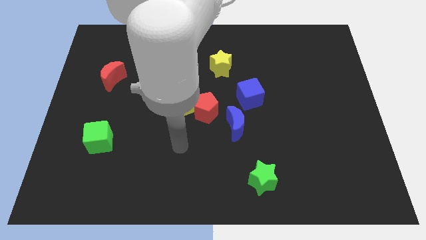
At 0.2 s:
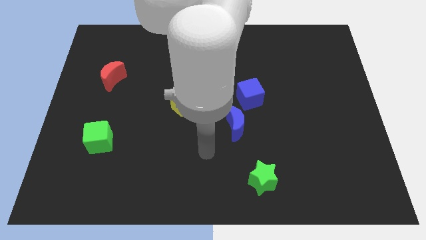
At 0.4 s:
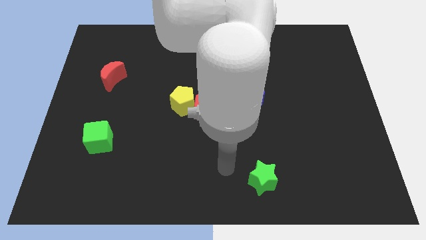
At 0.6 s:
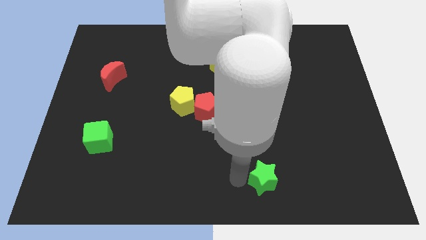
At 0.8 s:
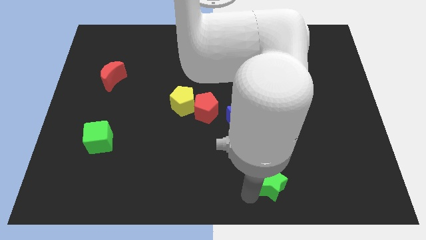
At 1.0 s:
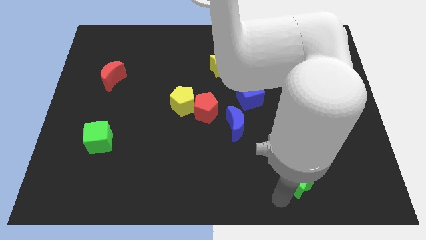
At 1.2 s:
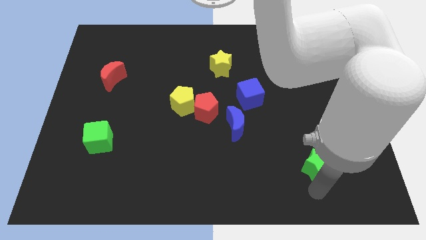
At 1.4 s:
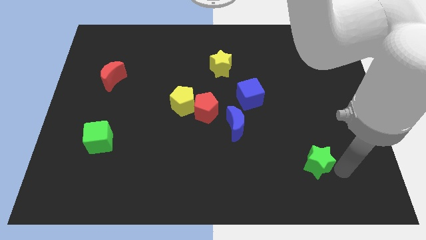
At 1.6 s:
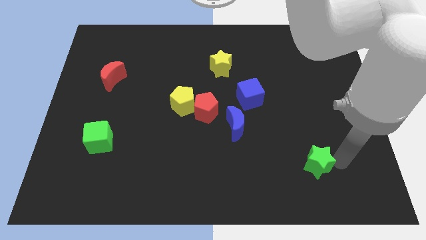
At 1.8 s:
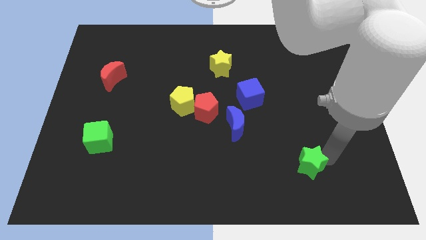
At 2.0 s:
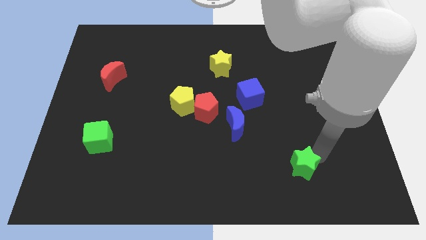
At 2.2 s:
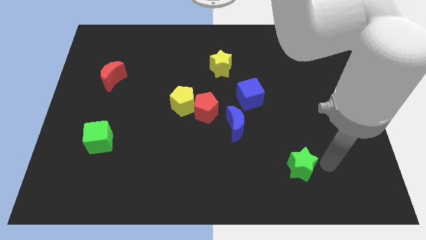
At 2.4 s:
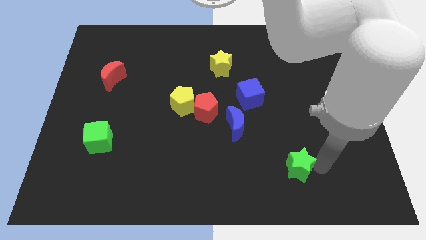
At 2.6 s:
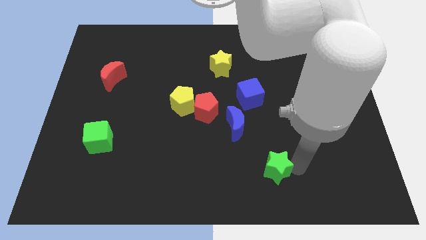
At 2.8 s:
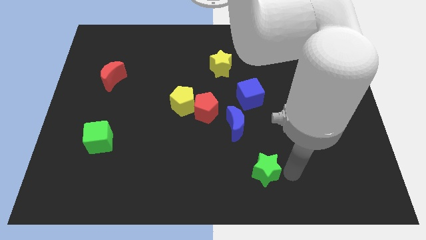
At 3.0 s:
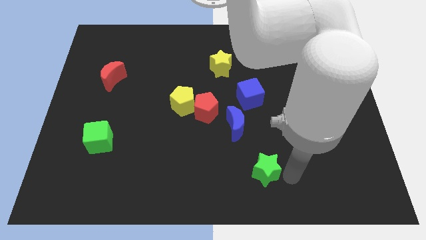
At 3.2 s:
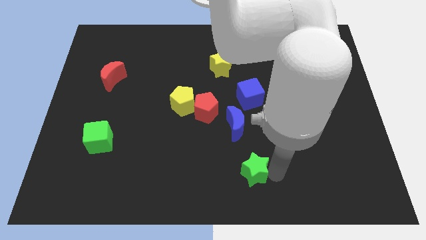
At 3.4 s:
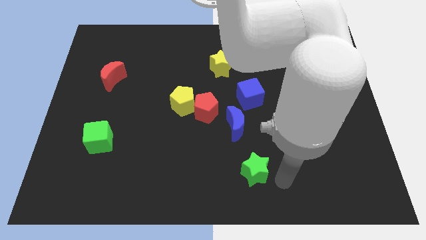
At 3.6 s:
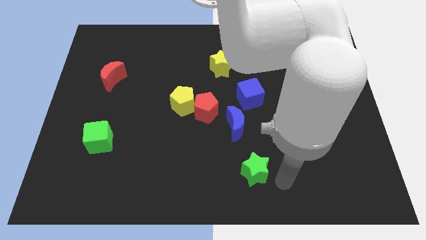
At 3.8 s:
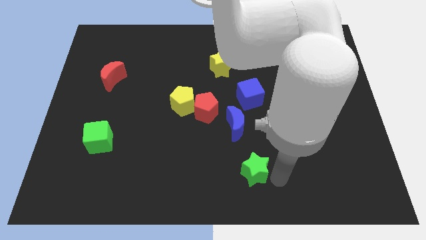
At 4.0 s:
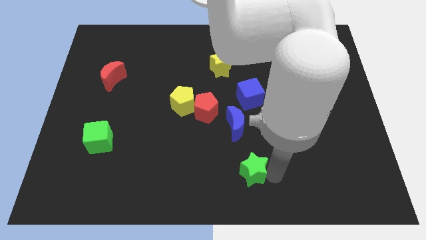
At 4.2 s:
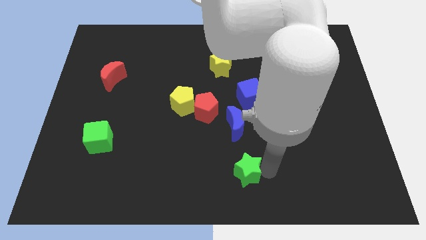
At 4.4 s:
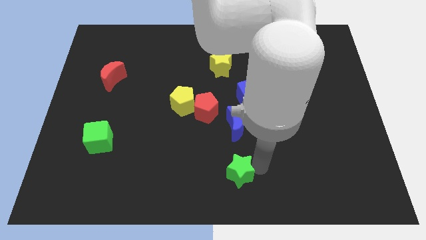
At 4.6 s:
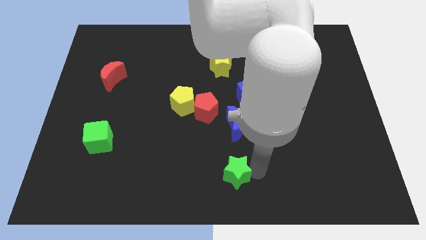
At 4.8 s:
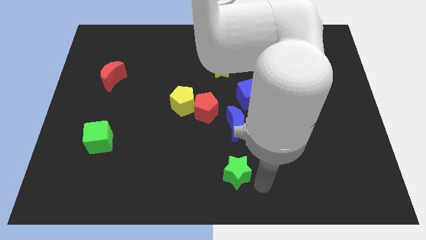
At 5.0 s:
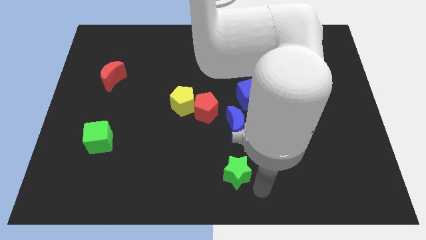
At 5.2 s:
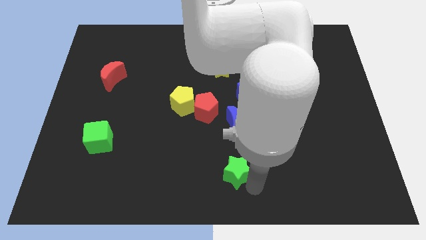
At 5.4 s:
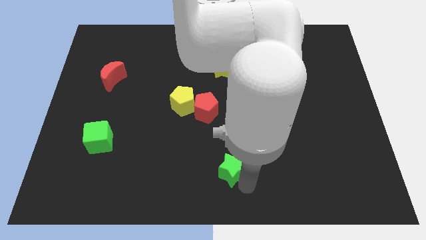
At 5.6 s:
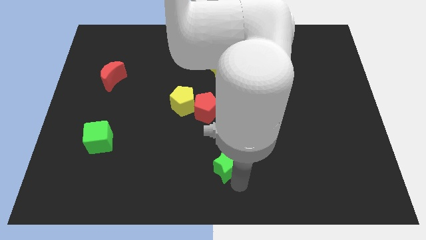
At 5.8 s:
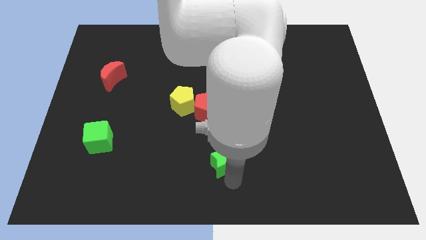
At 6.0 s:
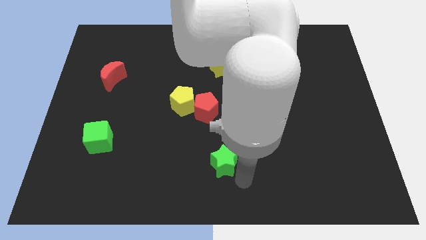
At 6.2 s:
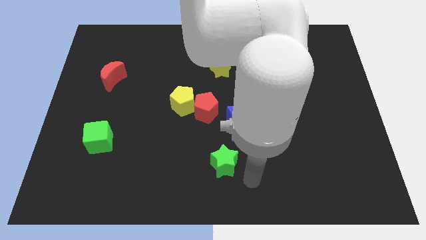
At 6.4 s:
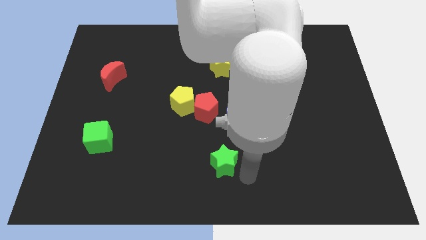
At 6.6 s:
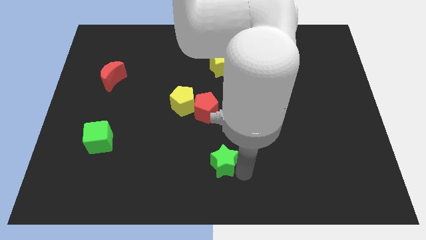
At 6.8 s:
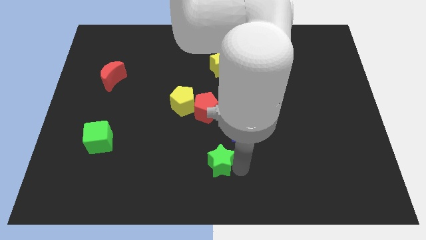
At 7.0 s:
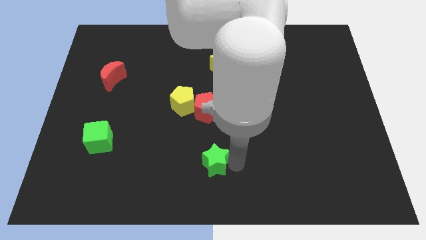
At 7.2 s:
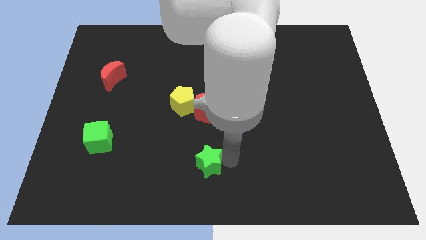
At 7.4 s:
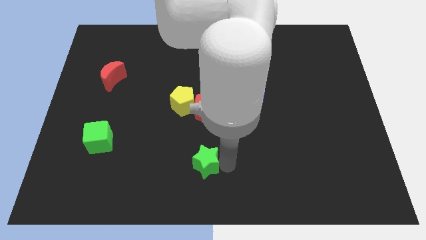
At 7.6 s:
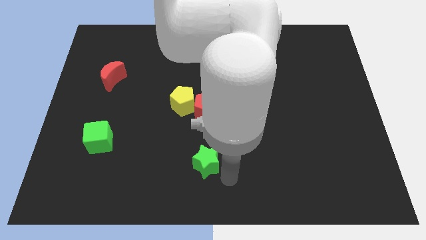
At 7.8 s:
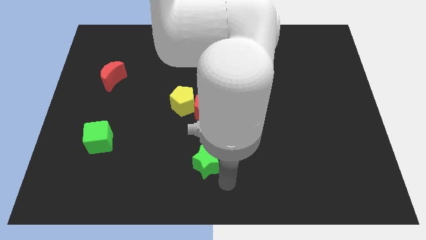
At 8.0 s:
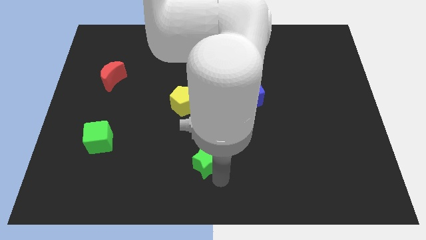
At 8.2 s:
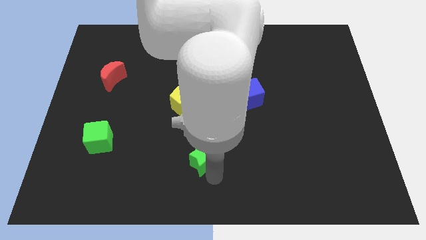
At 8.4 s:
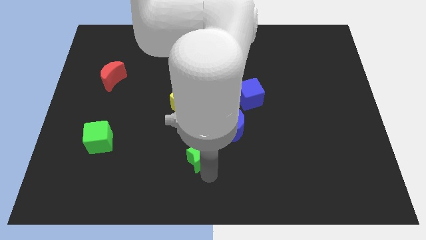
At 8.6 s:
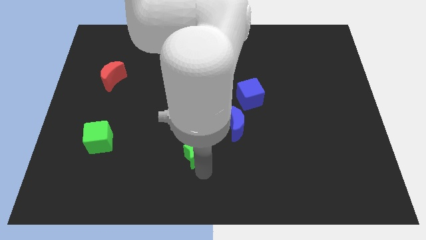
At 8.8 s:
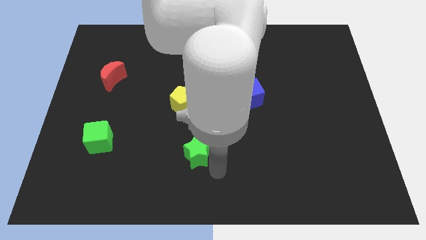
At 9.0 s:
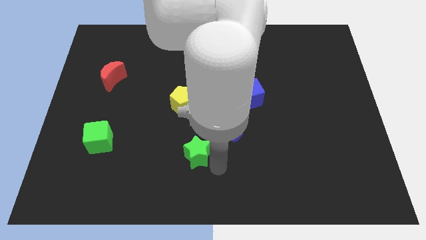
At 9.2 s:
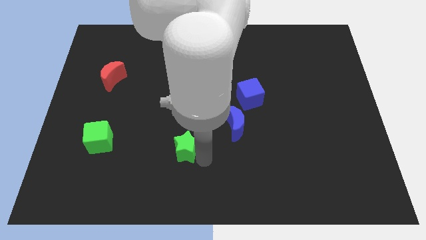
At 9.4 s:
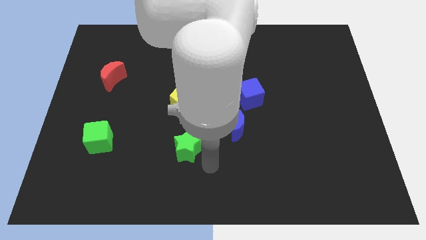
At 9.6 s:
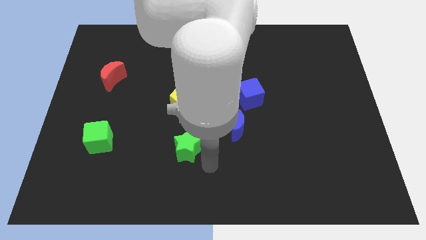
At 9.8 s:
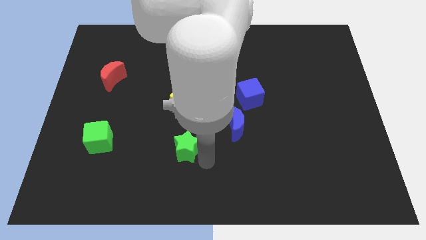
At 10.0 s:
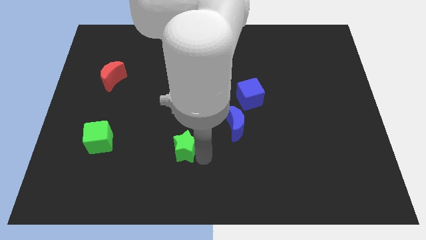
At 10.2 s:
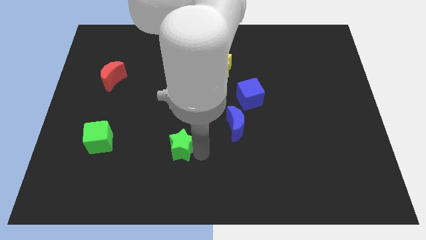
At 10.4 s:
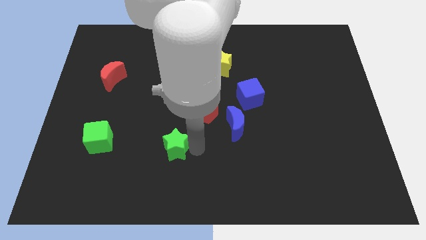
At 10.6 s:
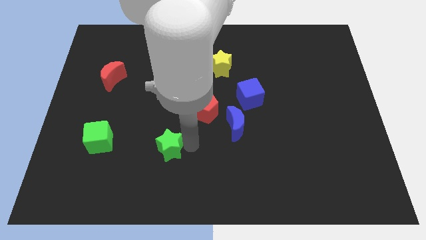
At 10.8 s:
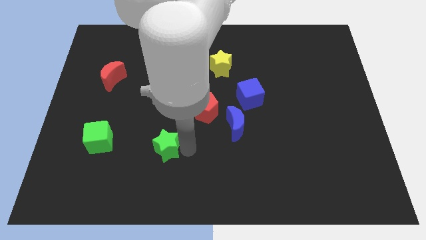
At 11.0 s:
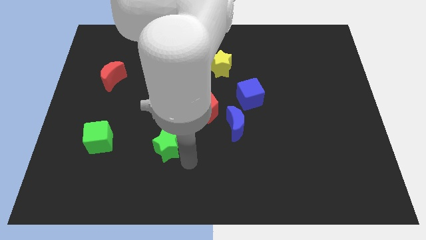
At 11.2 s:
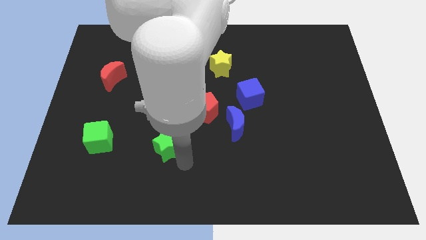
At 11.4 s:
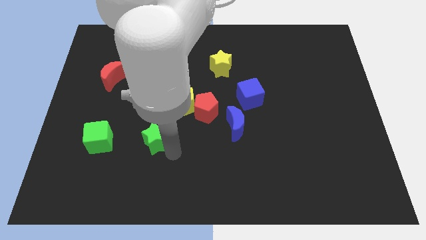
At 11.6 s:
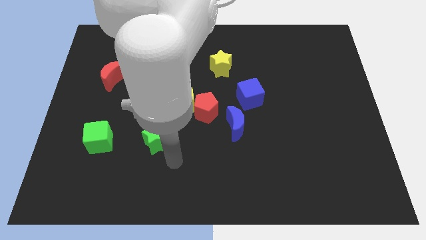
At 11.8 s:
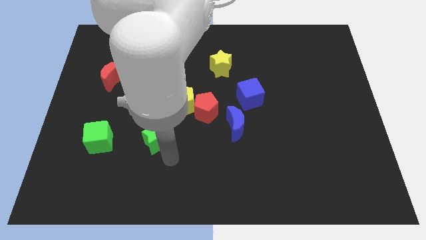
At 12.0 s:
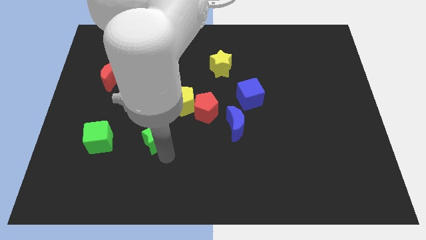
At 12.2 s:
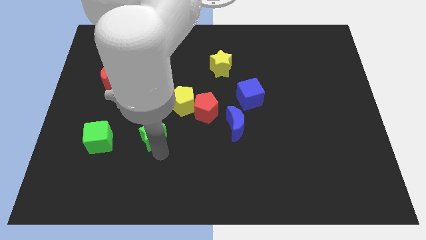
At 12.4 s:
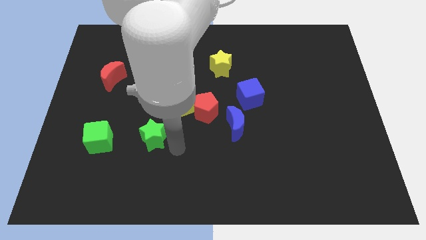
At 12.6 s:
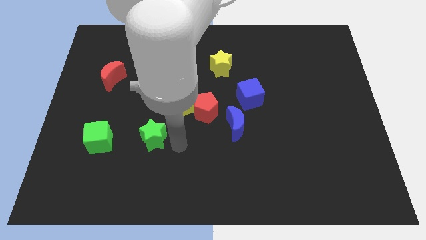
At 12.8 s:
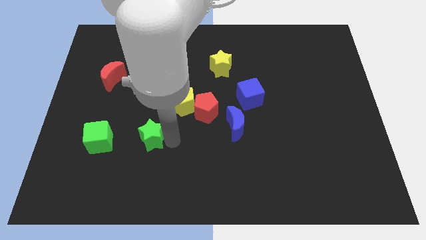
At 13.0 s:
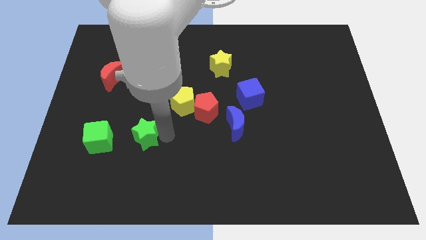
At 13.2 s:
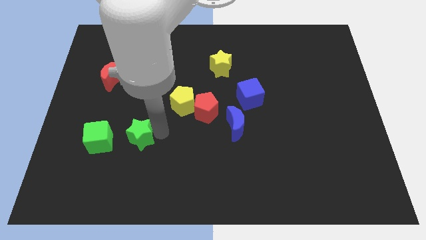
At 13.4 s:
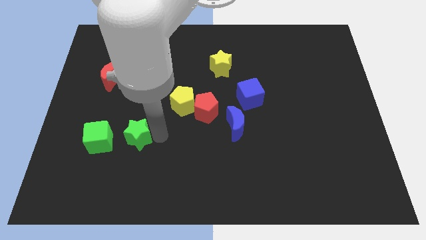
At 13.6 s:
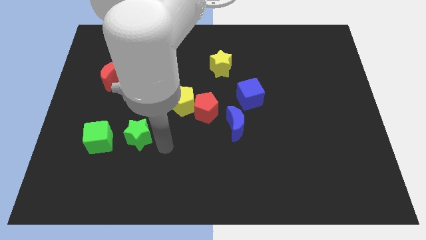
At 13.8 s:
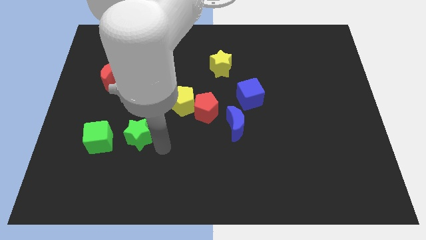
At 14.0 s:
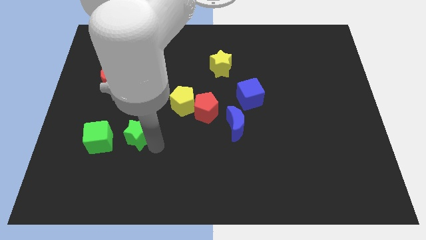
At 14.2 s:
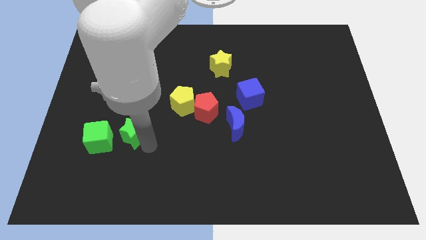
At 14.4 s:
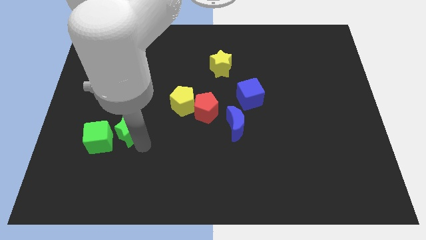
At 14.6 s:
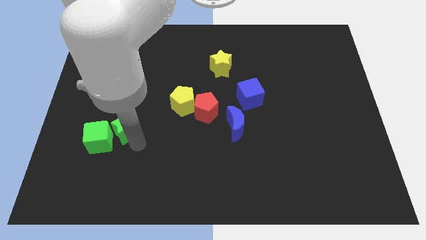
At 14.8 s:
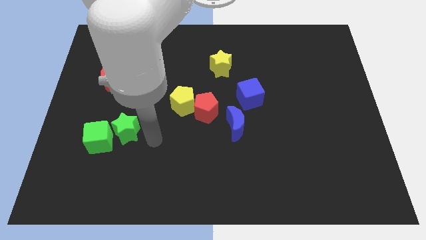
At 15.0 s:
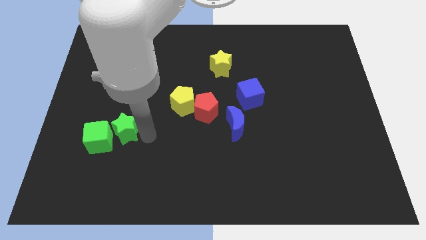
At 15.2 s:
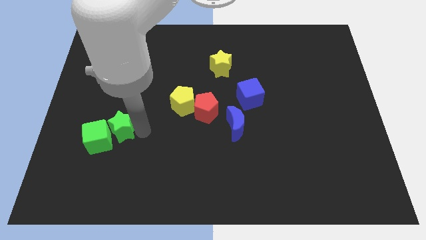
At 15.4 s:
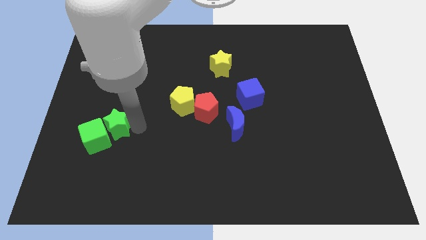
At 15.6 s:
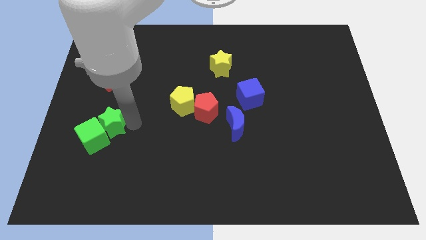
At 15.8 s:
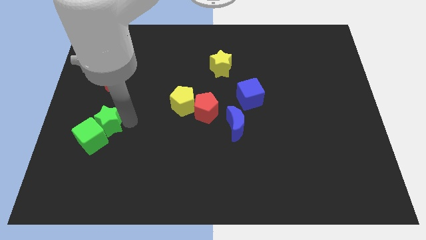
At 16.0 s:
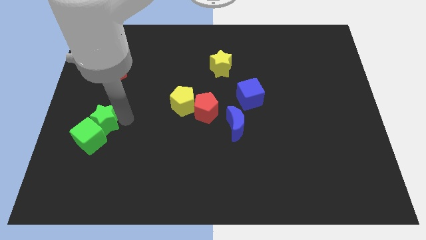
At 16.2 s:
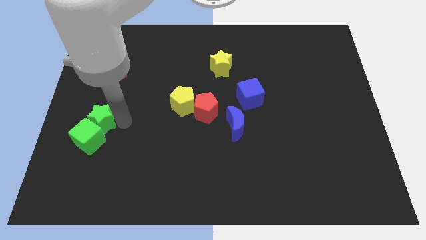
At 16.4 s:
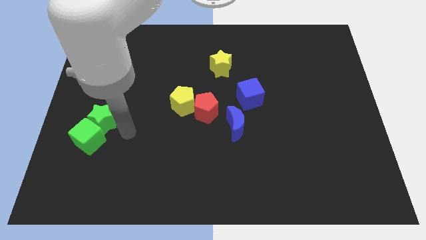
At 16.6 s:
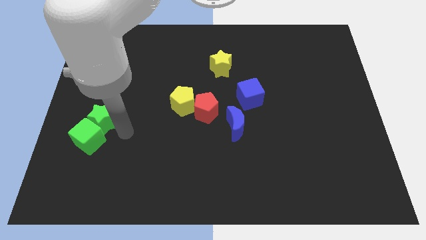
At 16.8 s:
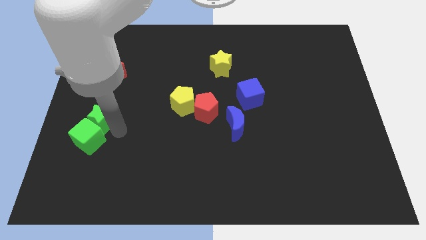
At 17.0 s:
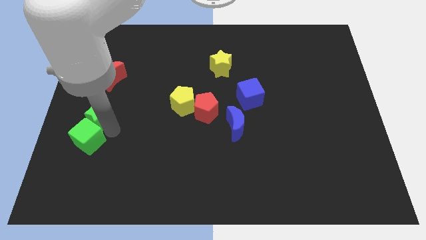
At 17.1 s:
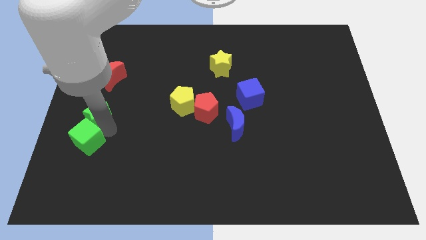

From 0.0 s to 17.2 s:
slide the green star to the center left
